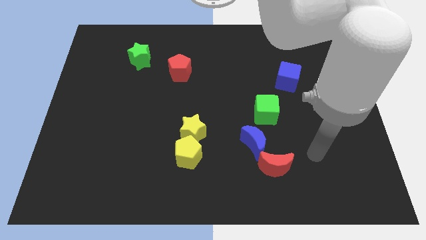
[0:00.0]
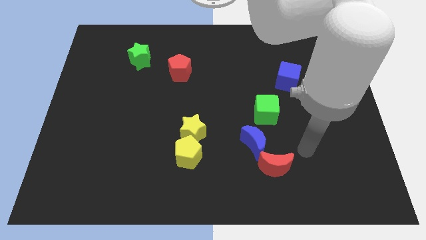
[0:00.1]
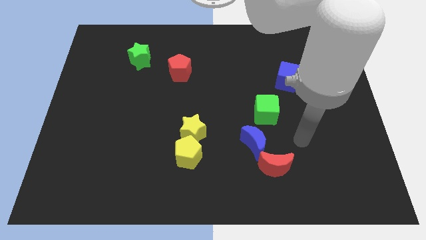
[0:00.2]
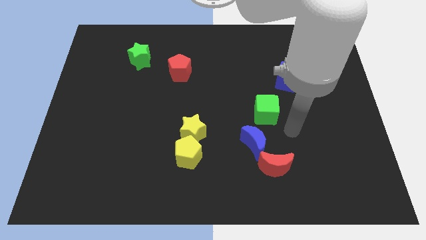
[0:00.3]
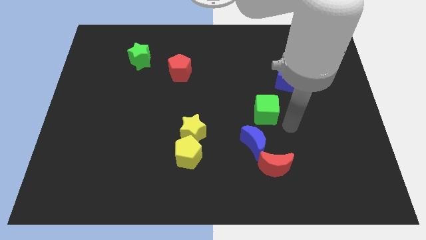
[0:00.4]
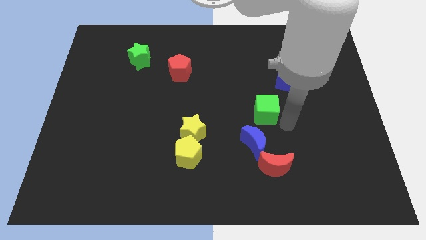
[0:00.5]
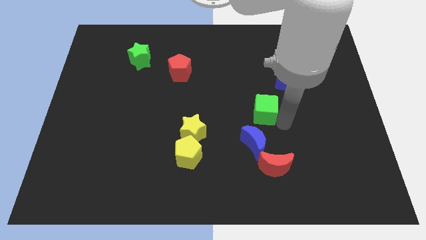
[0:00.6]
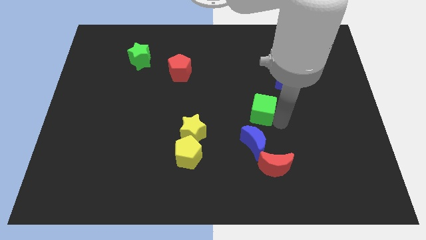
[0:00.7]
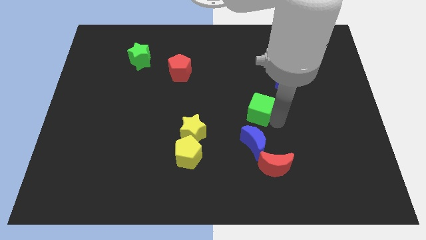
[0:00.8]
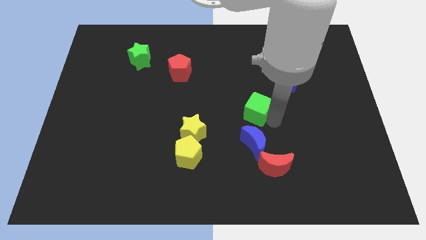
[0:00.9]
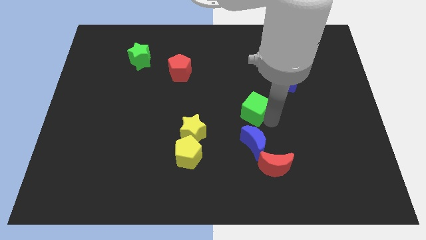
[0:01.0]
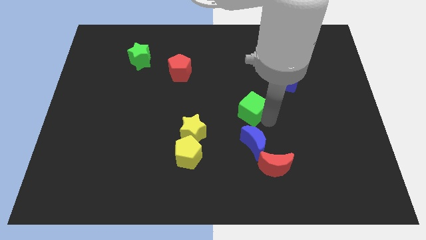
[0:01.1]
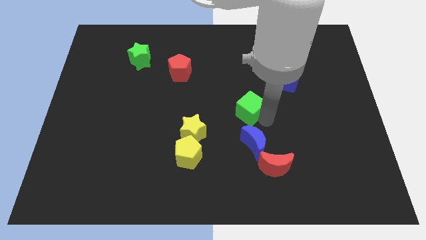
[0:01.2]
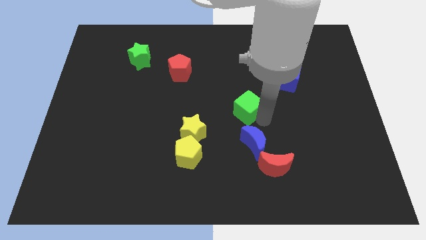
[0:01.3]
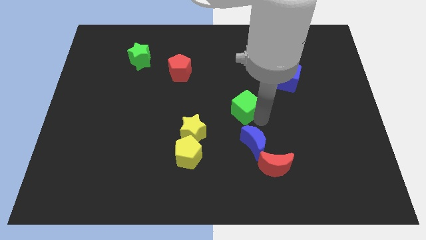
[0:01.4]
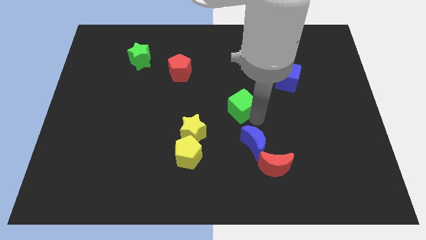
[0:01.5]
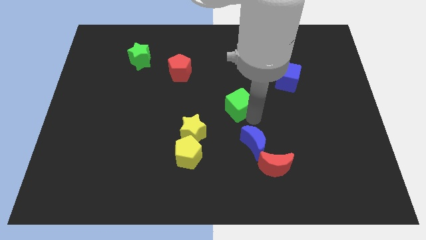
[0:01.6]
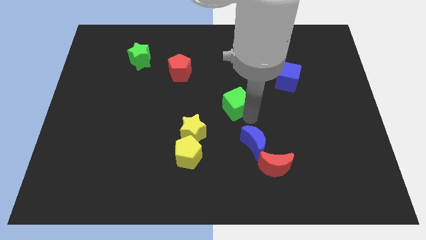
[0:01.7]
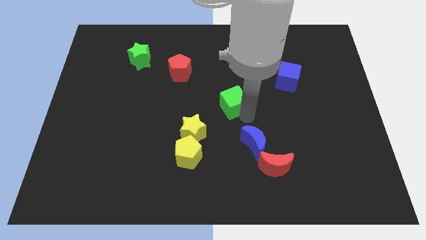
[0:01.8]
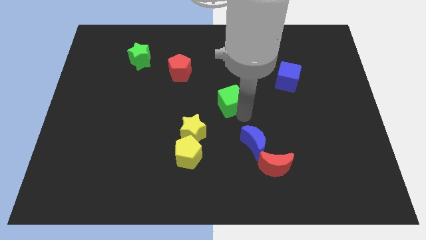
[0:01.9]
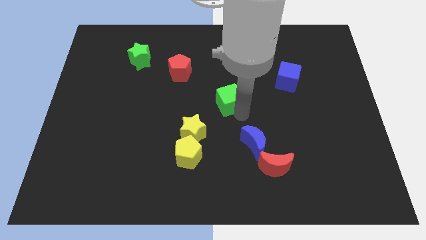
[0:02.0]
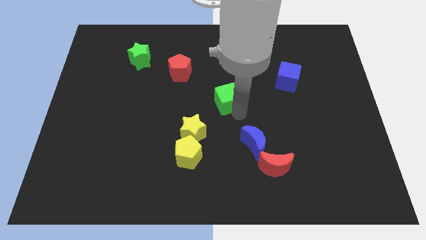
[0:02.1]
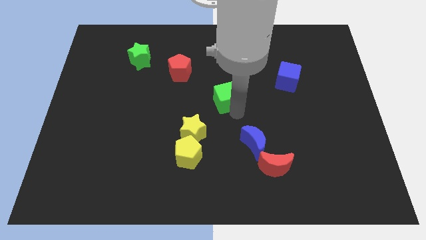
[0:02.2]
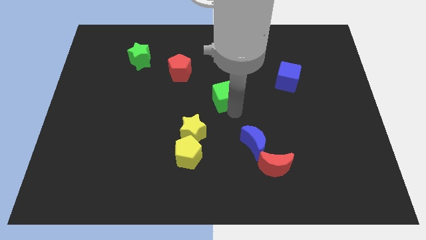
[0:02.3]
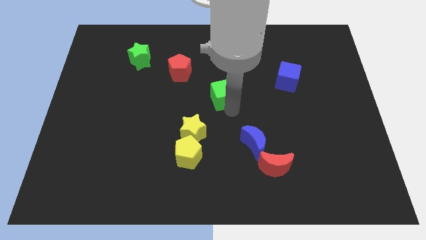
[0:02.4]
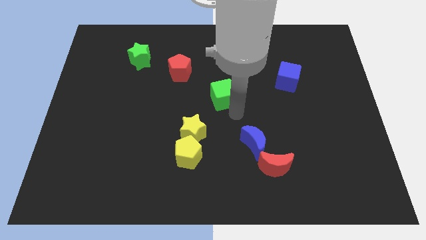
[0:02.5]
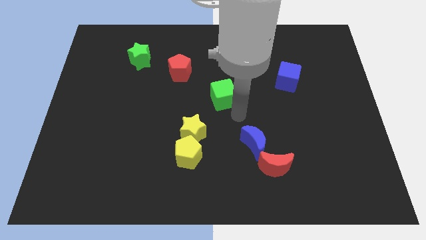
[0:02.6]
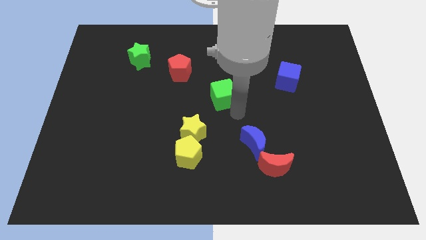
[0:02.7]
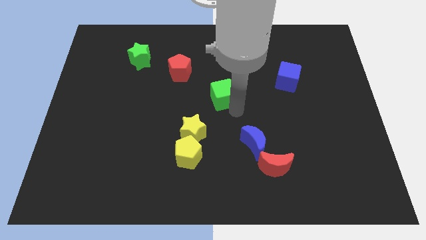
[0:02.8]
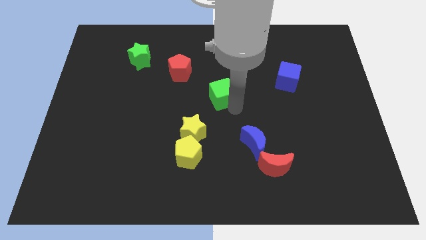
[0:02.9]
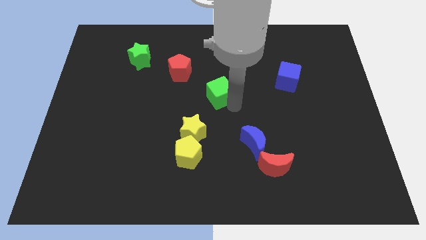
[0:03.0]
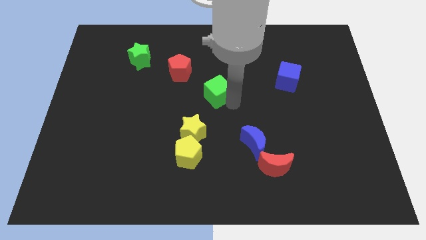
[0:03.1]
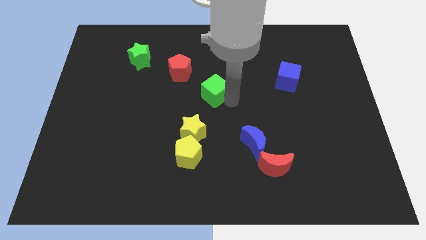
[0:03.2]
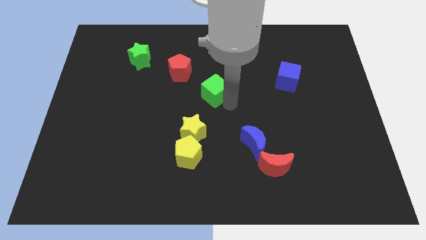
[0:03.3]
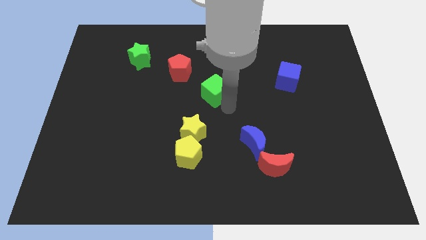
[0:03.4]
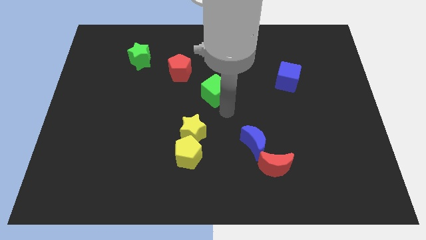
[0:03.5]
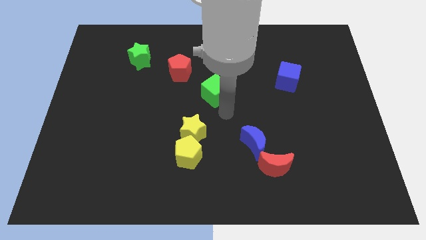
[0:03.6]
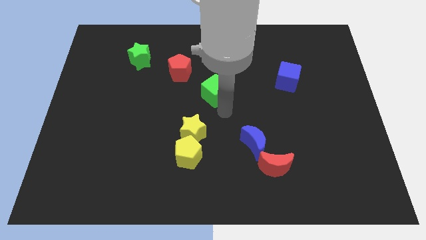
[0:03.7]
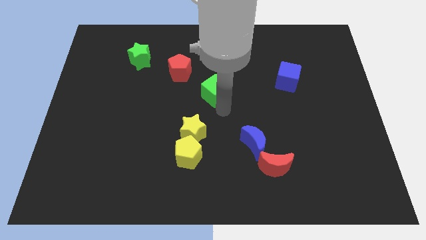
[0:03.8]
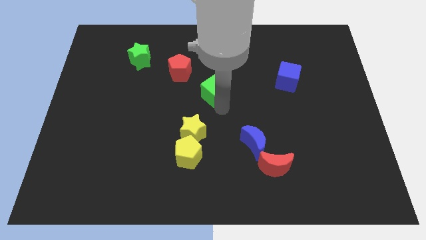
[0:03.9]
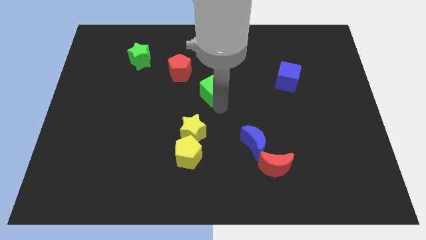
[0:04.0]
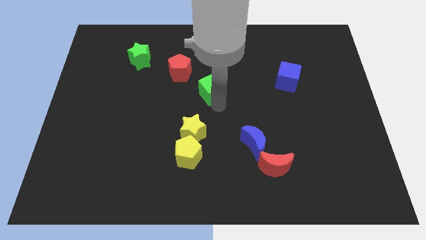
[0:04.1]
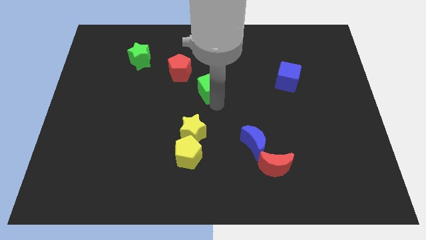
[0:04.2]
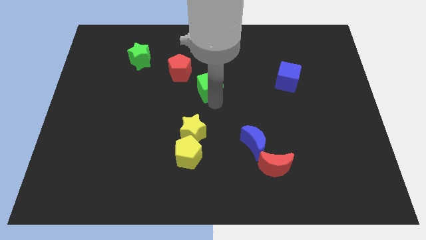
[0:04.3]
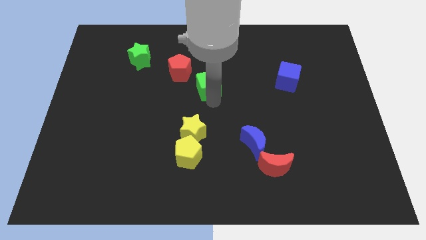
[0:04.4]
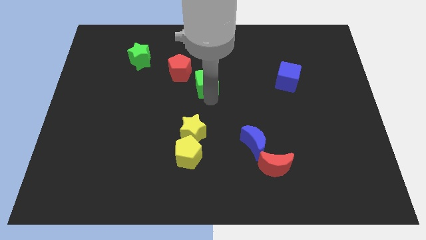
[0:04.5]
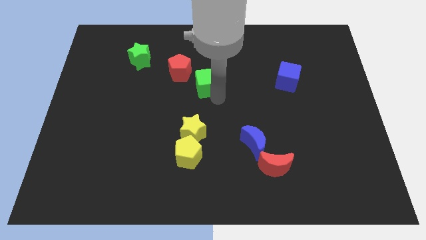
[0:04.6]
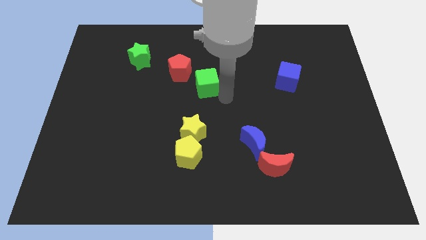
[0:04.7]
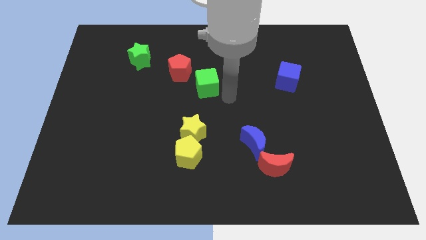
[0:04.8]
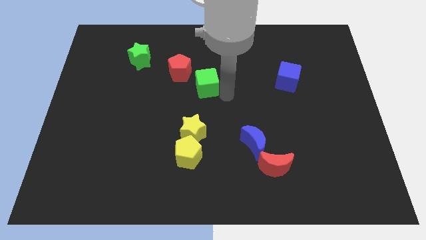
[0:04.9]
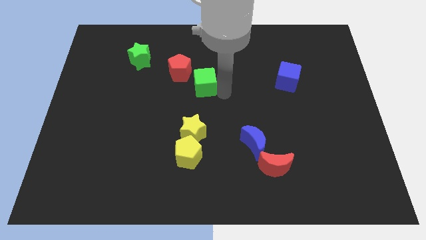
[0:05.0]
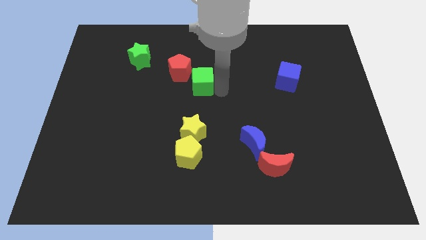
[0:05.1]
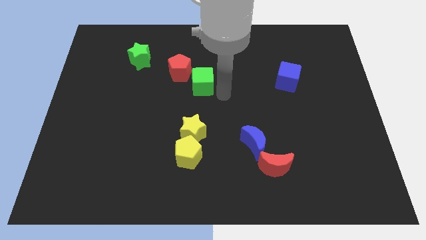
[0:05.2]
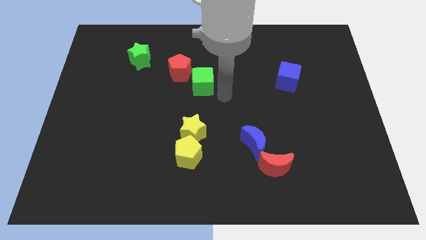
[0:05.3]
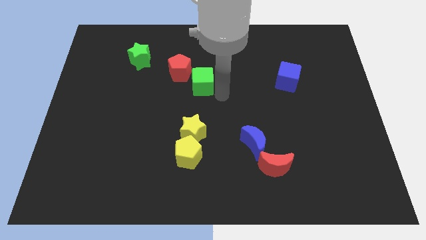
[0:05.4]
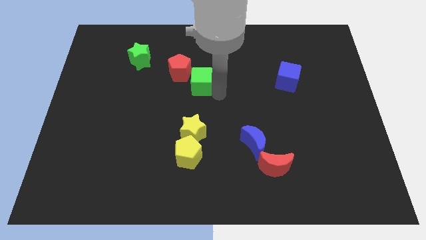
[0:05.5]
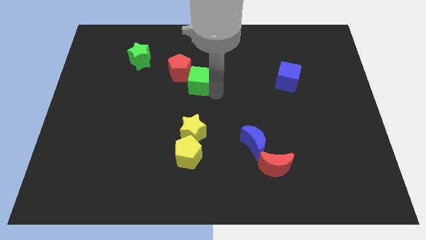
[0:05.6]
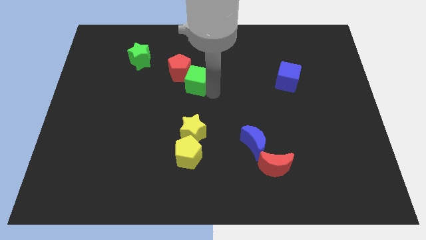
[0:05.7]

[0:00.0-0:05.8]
put the green cube towards the red pentagon

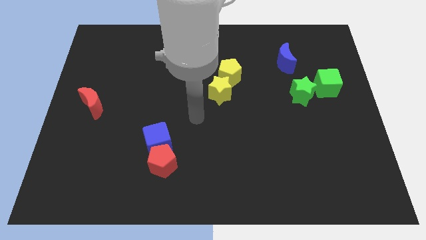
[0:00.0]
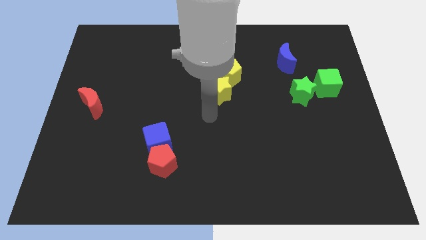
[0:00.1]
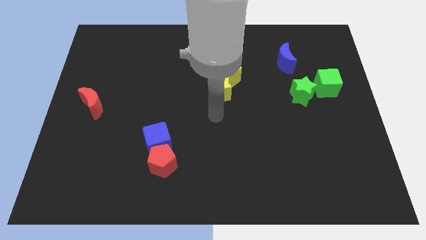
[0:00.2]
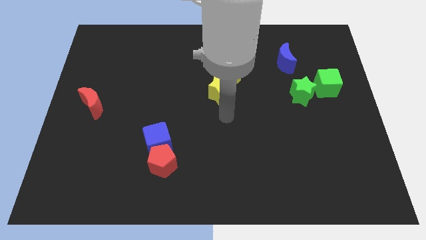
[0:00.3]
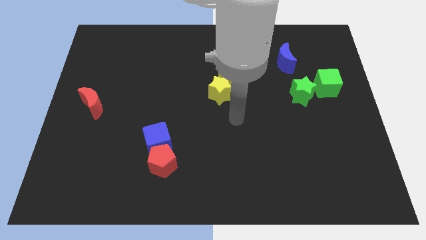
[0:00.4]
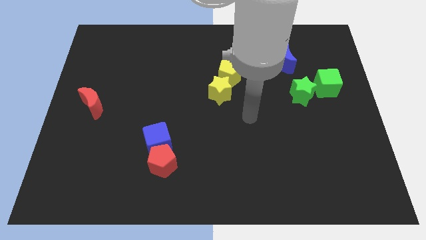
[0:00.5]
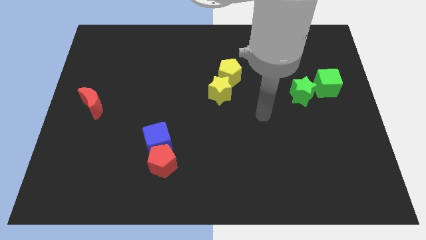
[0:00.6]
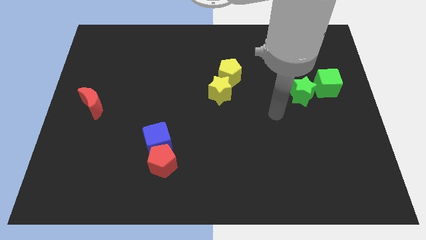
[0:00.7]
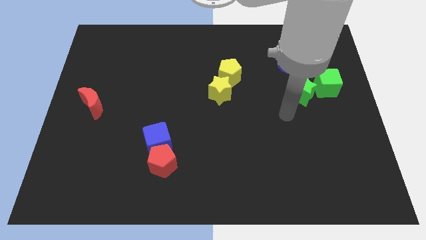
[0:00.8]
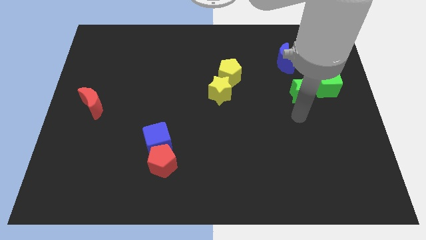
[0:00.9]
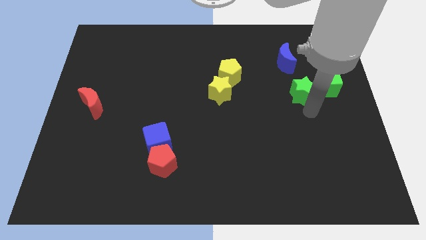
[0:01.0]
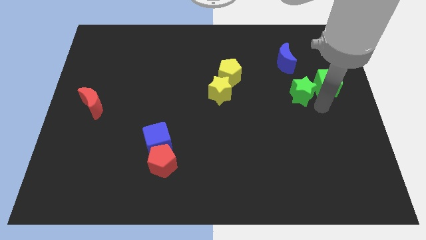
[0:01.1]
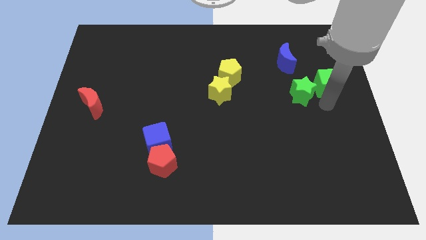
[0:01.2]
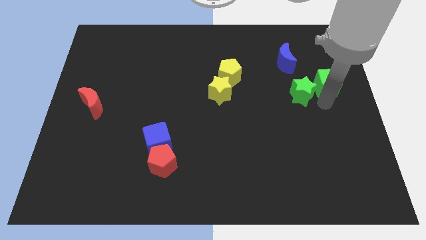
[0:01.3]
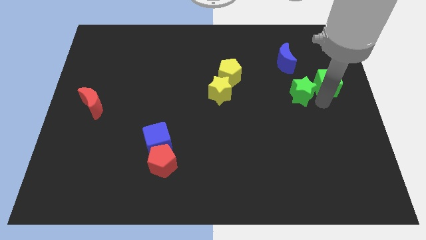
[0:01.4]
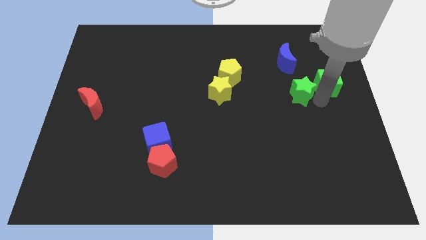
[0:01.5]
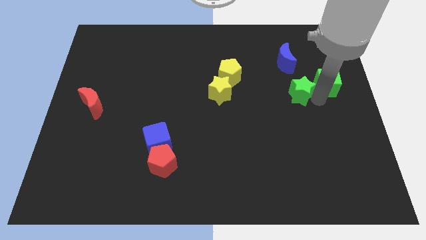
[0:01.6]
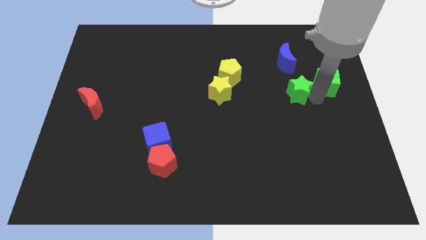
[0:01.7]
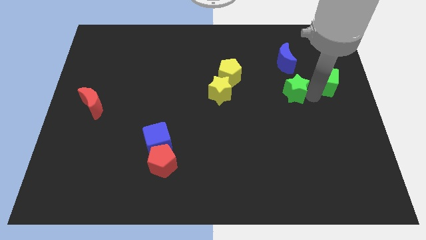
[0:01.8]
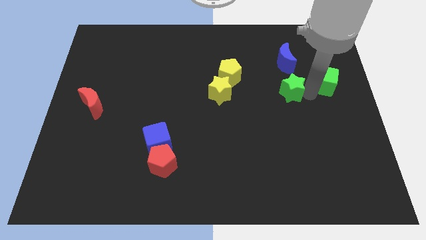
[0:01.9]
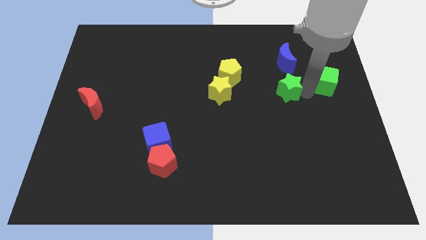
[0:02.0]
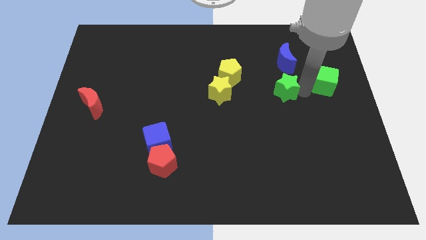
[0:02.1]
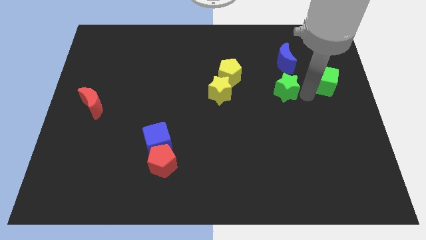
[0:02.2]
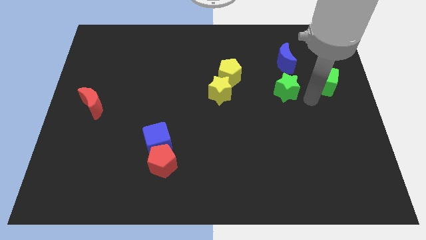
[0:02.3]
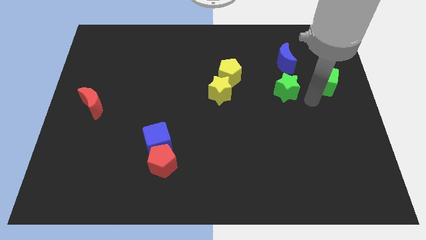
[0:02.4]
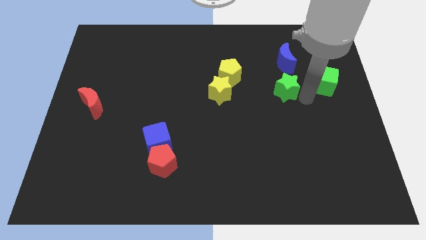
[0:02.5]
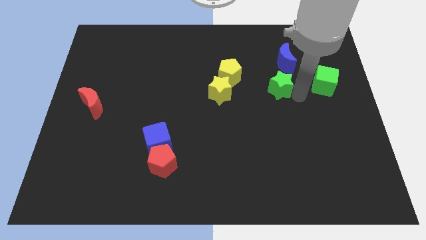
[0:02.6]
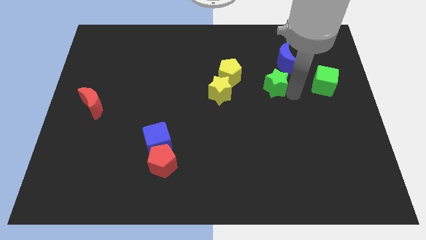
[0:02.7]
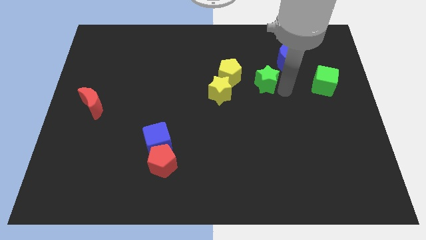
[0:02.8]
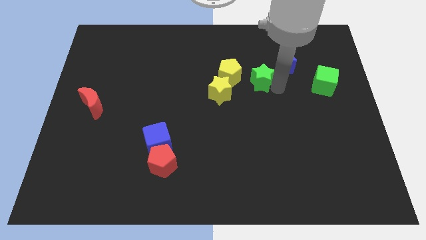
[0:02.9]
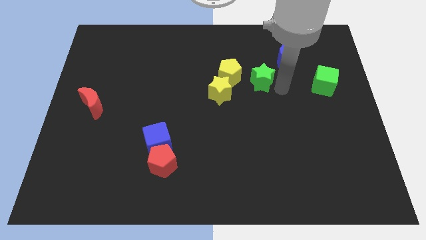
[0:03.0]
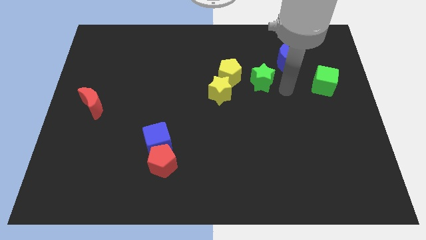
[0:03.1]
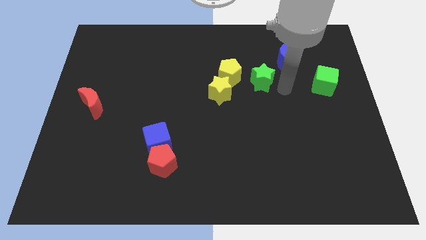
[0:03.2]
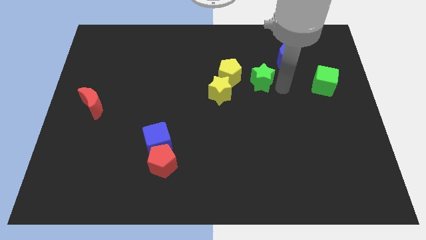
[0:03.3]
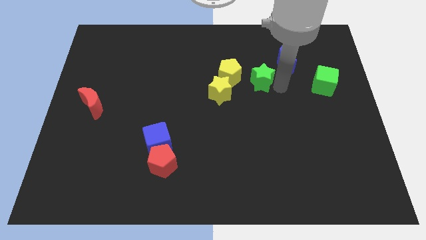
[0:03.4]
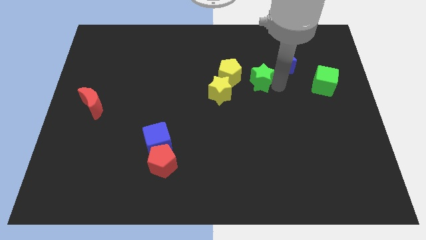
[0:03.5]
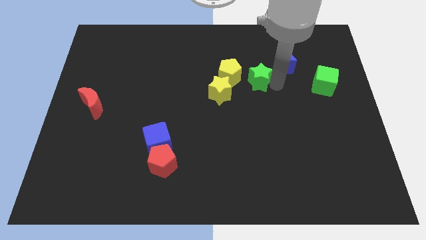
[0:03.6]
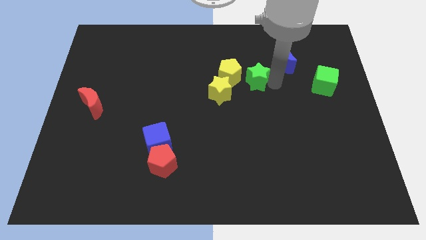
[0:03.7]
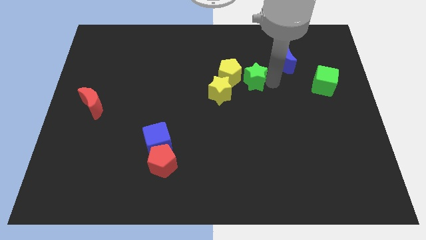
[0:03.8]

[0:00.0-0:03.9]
push the green star next to the yellow pentagon
